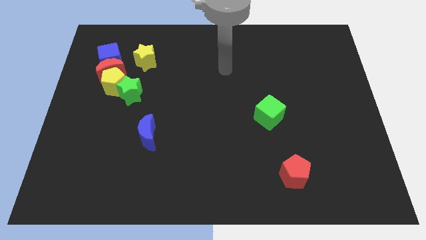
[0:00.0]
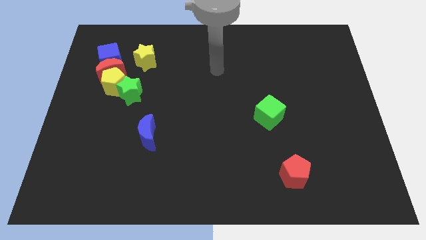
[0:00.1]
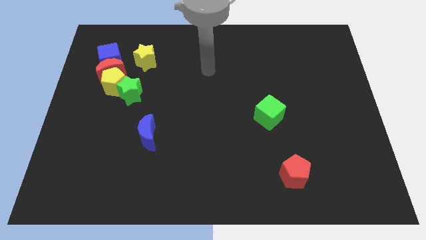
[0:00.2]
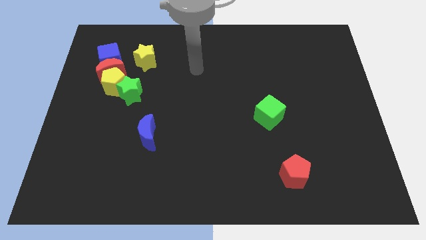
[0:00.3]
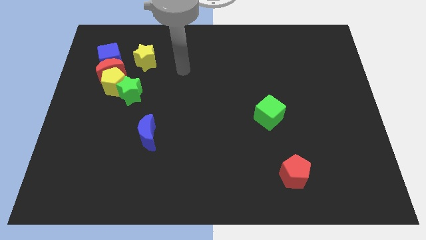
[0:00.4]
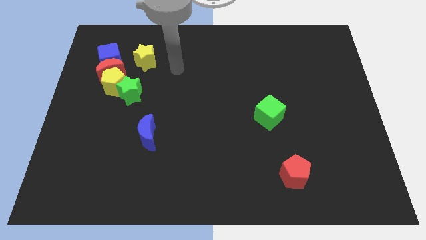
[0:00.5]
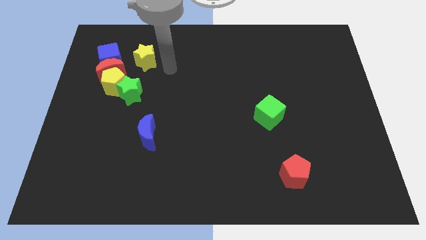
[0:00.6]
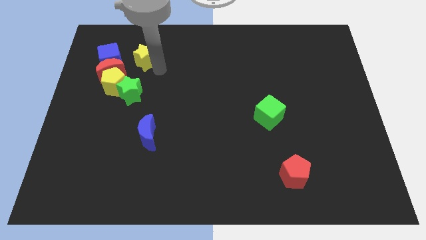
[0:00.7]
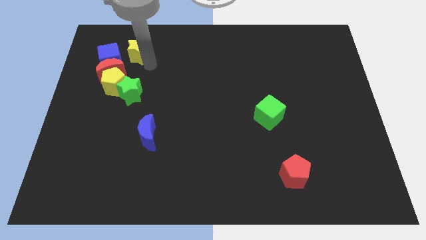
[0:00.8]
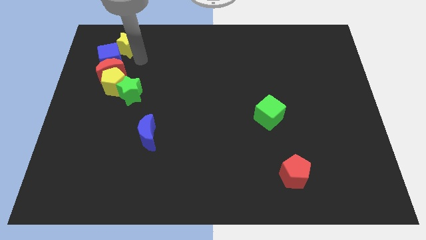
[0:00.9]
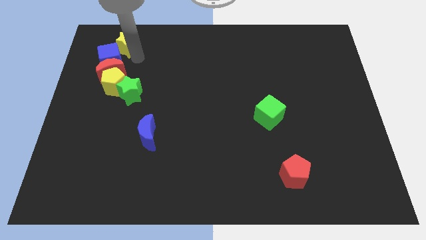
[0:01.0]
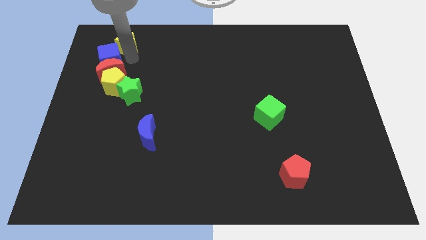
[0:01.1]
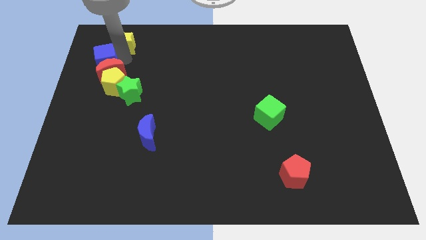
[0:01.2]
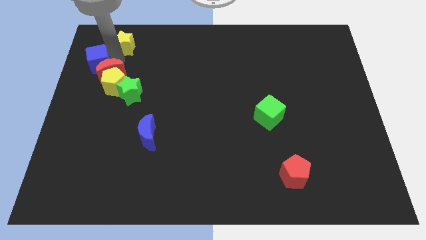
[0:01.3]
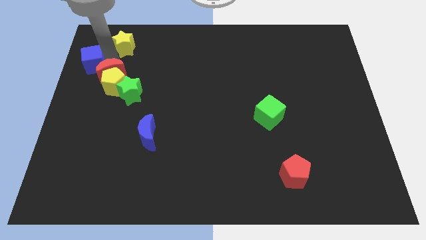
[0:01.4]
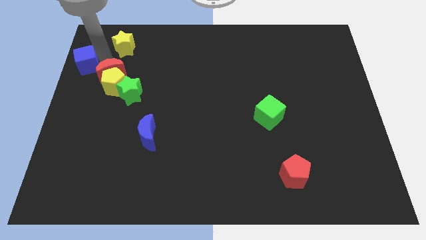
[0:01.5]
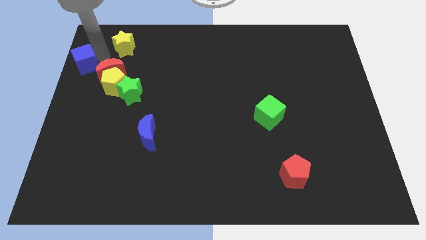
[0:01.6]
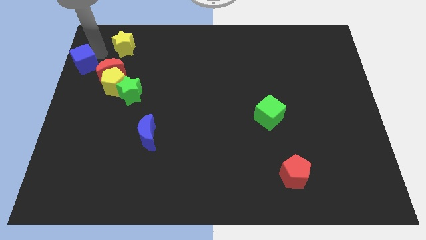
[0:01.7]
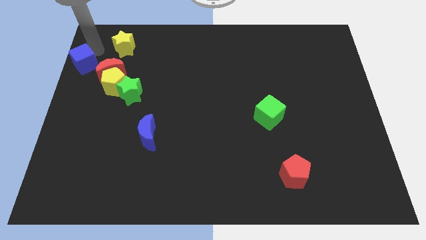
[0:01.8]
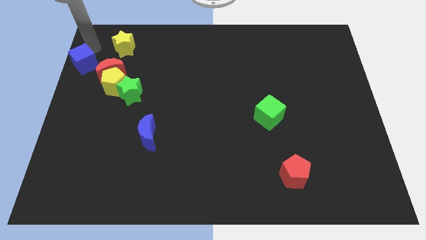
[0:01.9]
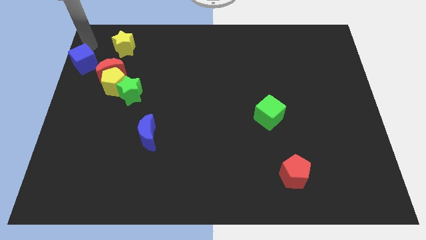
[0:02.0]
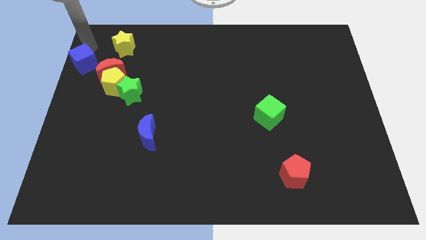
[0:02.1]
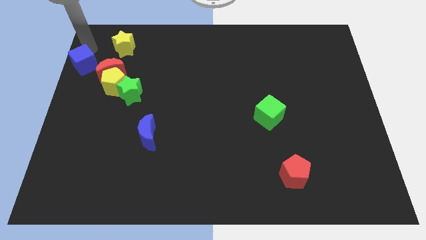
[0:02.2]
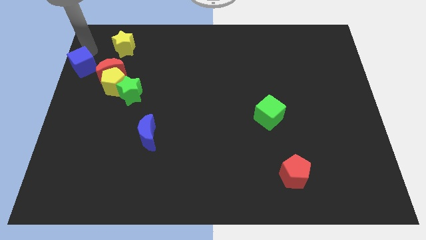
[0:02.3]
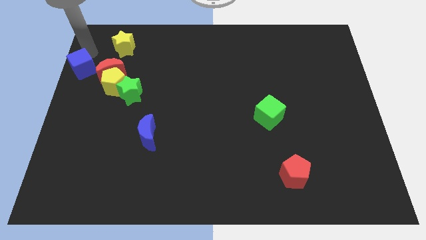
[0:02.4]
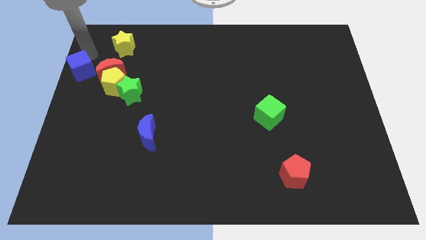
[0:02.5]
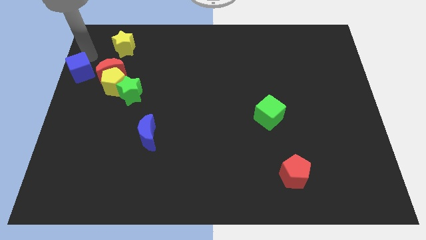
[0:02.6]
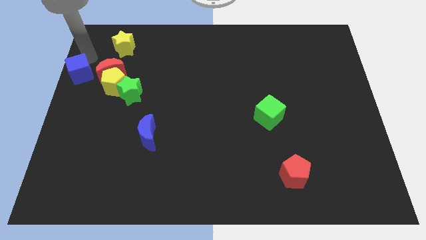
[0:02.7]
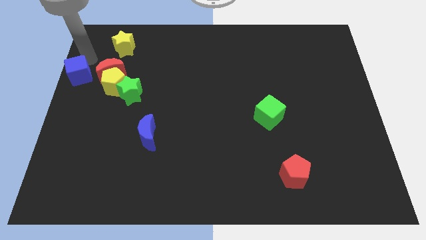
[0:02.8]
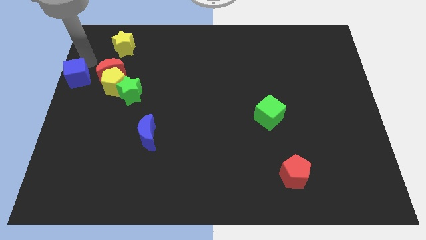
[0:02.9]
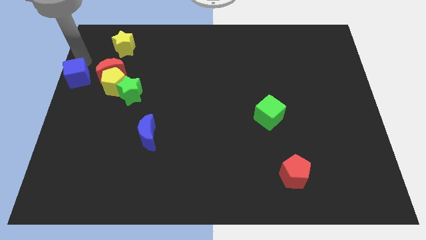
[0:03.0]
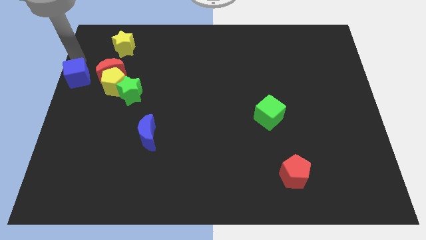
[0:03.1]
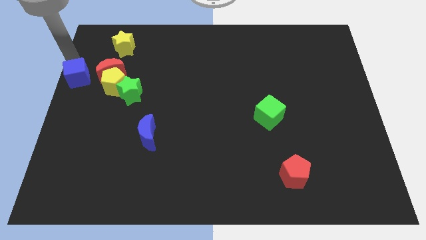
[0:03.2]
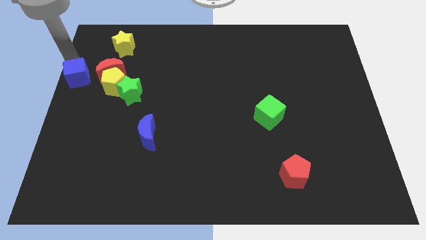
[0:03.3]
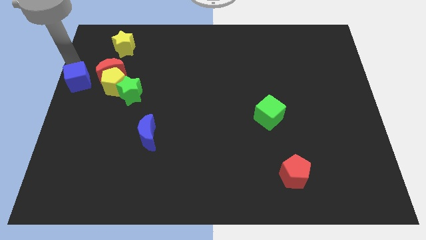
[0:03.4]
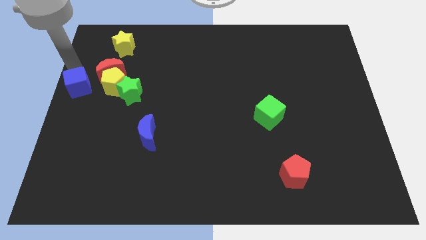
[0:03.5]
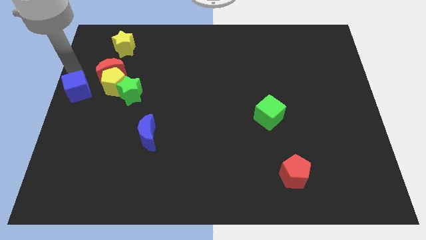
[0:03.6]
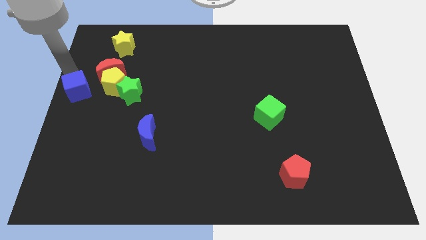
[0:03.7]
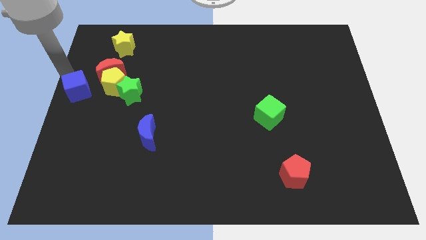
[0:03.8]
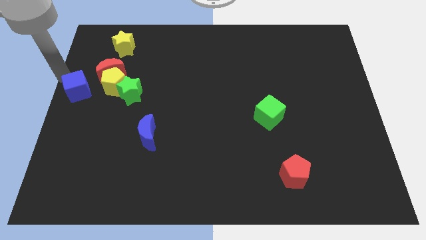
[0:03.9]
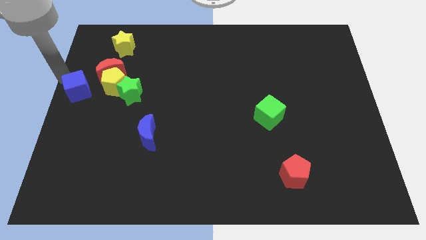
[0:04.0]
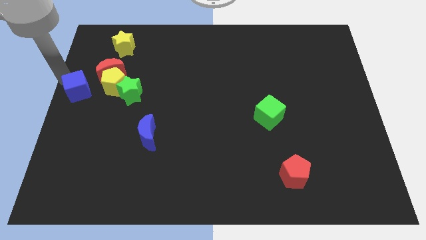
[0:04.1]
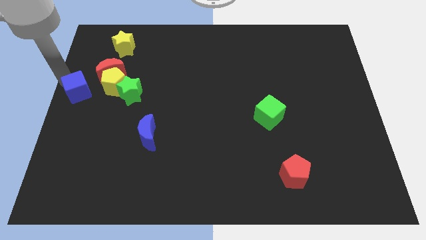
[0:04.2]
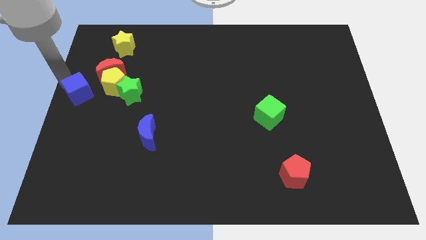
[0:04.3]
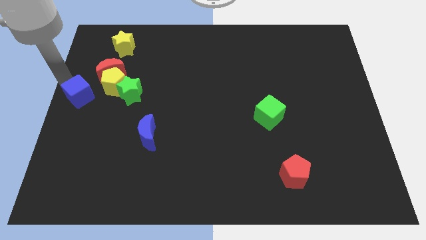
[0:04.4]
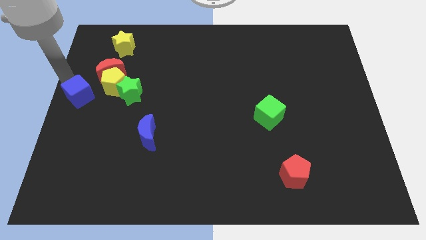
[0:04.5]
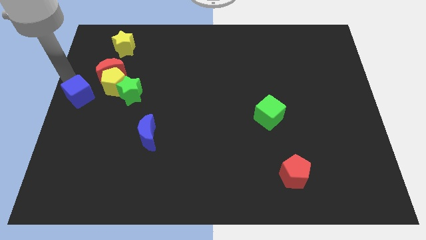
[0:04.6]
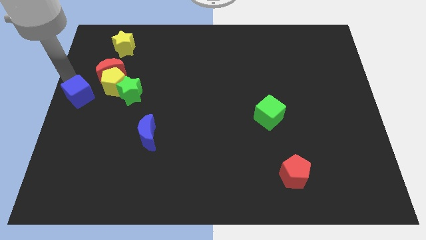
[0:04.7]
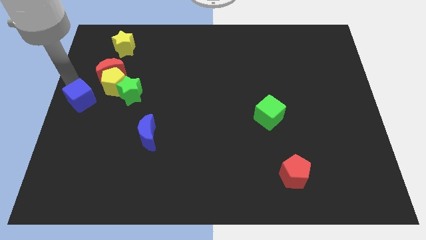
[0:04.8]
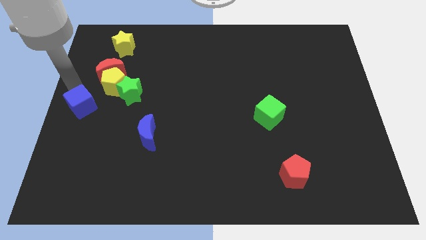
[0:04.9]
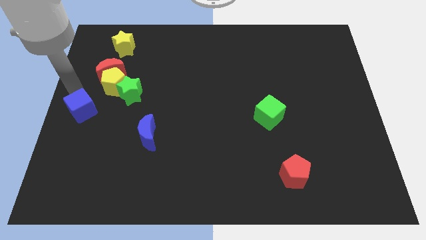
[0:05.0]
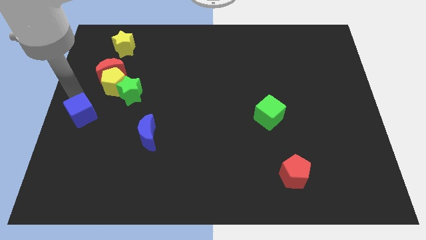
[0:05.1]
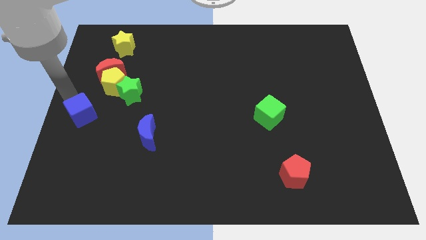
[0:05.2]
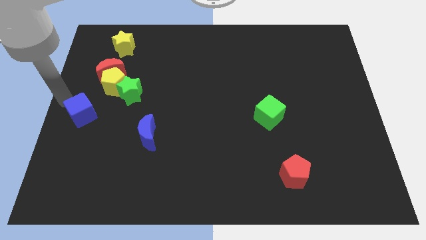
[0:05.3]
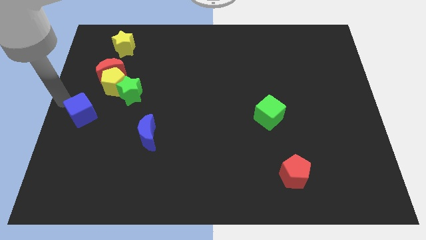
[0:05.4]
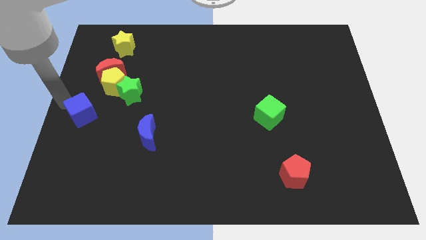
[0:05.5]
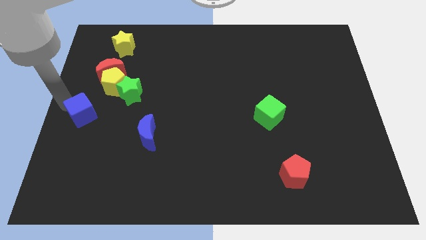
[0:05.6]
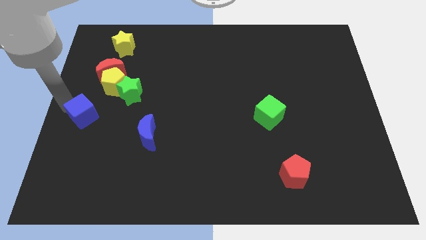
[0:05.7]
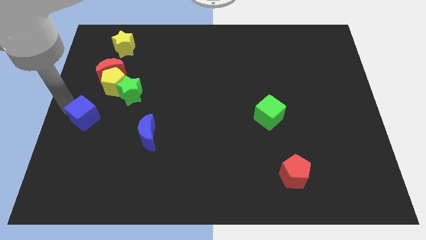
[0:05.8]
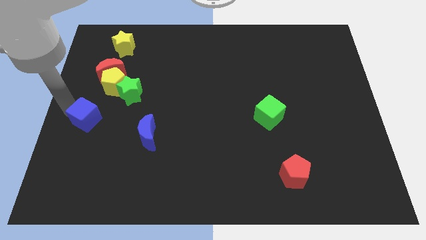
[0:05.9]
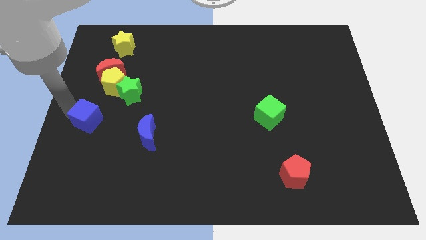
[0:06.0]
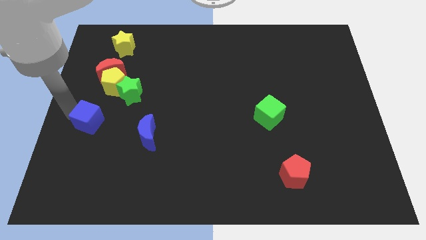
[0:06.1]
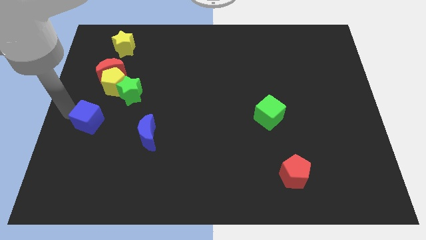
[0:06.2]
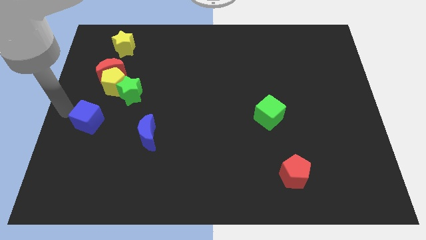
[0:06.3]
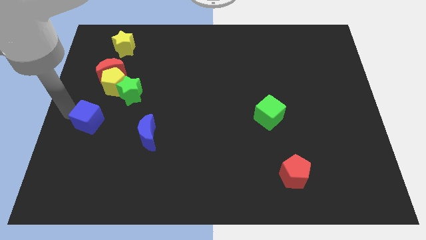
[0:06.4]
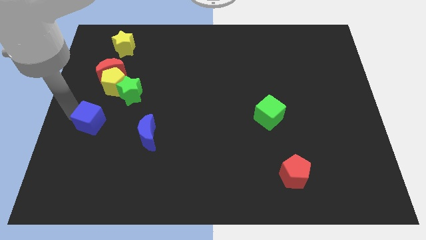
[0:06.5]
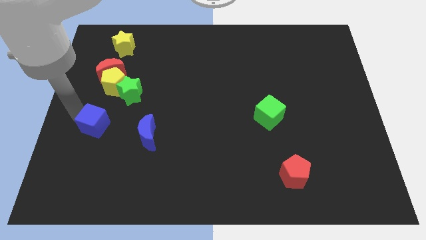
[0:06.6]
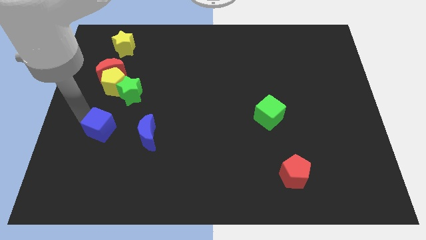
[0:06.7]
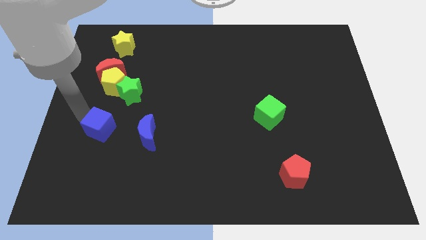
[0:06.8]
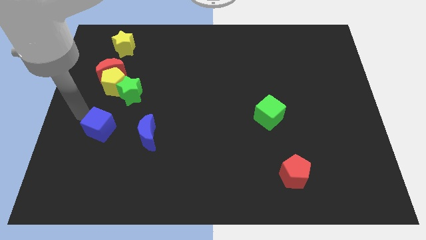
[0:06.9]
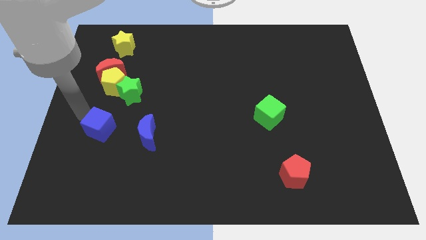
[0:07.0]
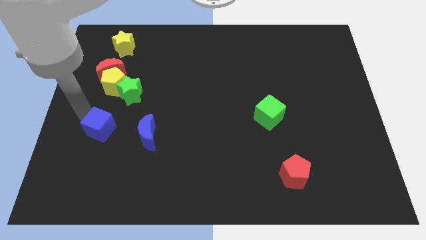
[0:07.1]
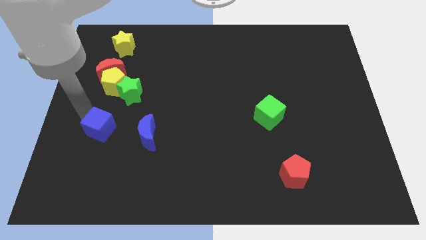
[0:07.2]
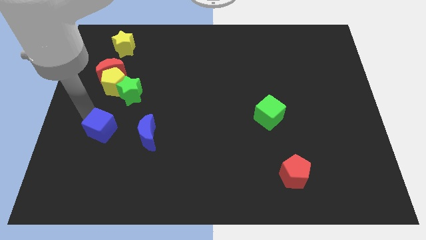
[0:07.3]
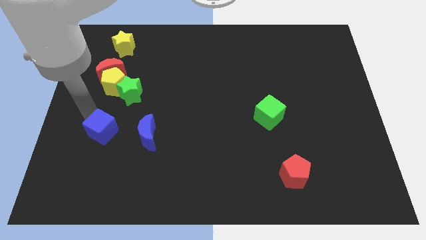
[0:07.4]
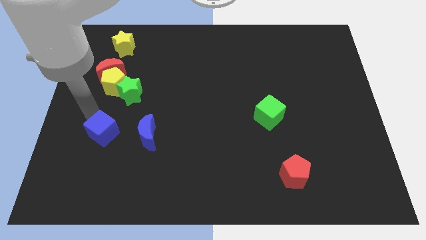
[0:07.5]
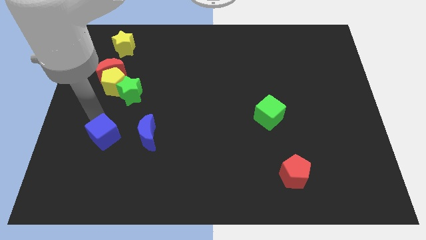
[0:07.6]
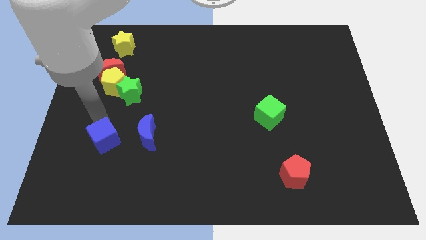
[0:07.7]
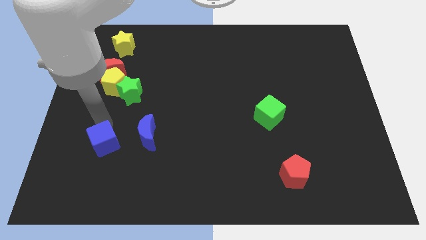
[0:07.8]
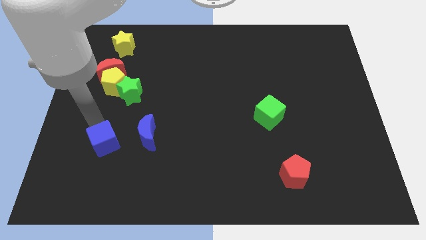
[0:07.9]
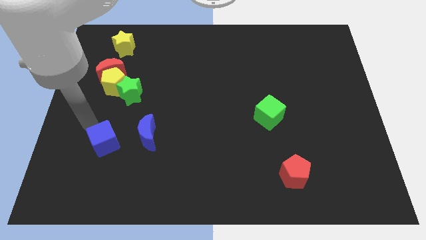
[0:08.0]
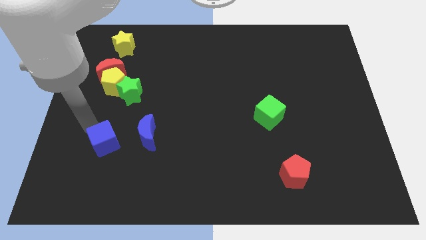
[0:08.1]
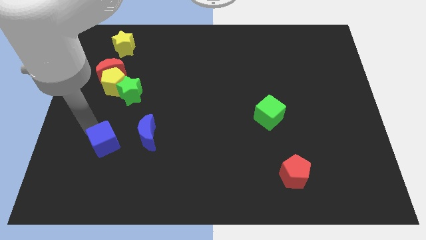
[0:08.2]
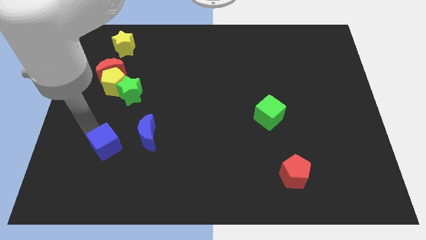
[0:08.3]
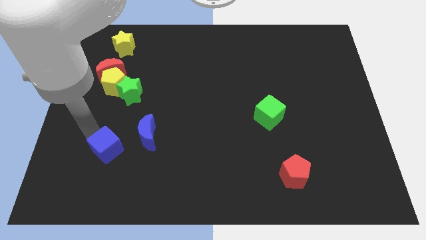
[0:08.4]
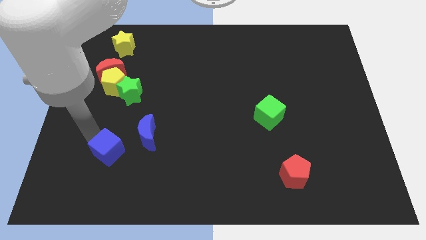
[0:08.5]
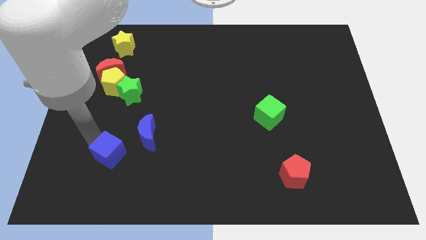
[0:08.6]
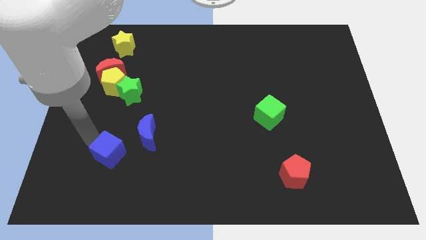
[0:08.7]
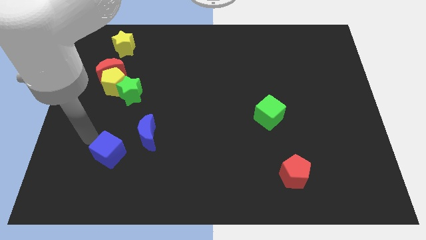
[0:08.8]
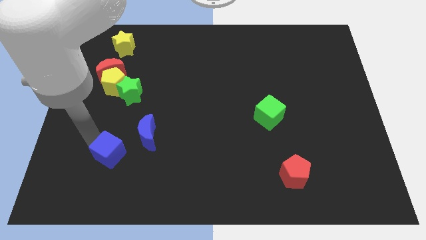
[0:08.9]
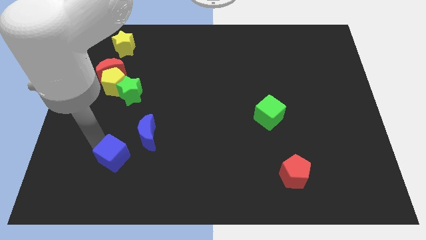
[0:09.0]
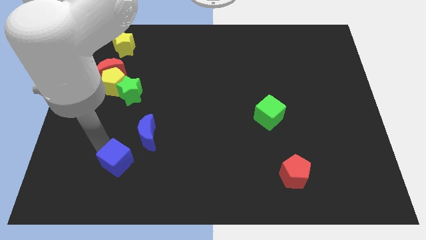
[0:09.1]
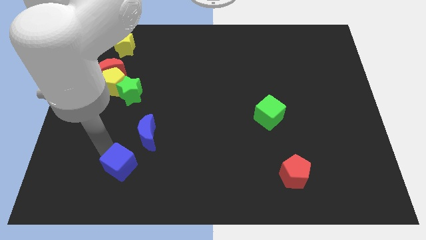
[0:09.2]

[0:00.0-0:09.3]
slide the blue cube below the blue moon
